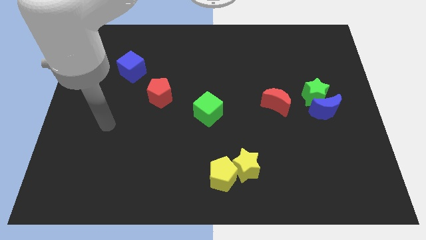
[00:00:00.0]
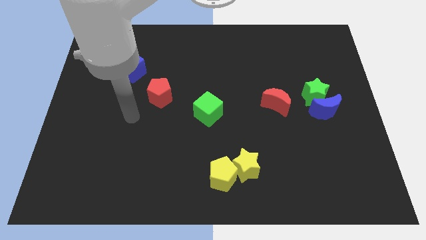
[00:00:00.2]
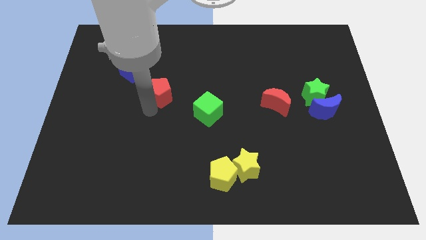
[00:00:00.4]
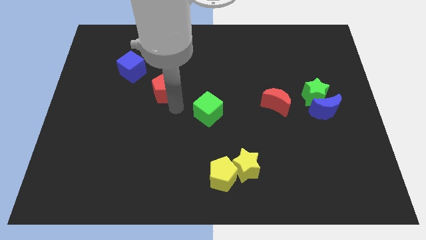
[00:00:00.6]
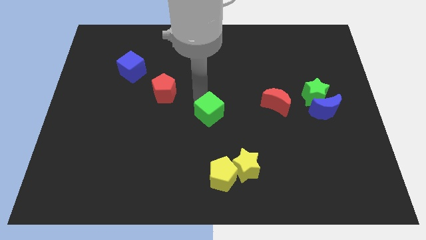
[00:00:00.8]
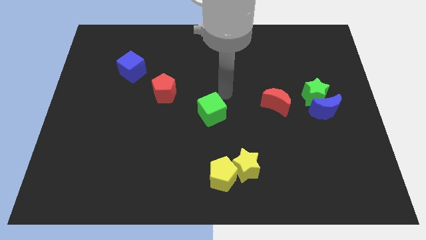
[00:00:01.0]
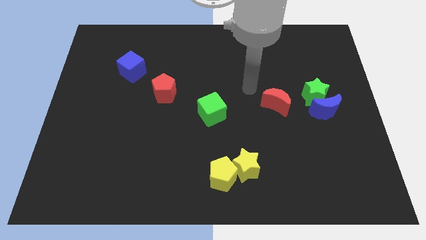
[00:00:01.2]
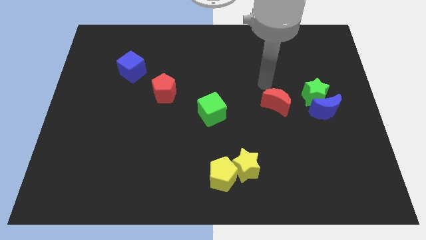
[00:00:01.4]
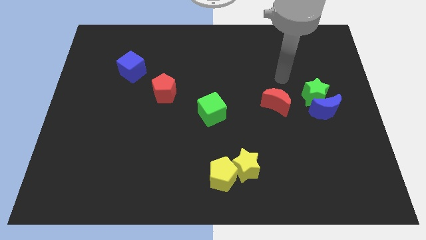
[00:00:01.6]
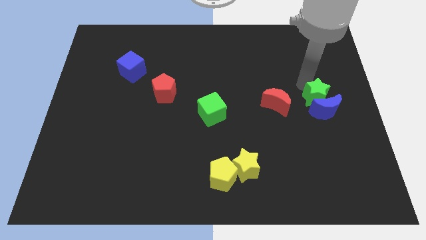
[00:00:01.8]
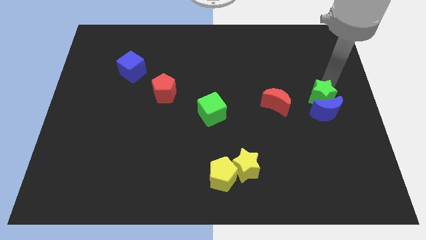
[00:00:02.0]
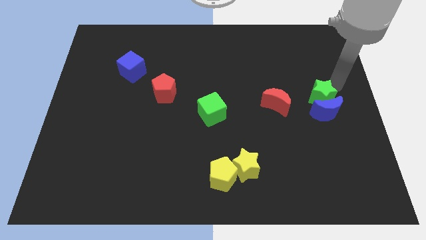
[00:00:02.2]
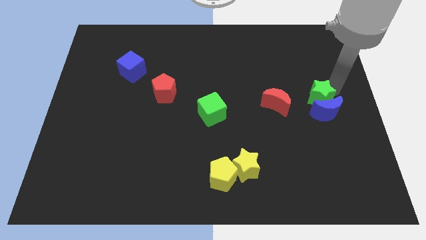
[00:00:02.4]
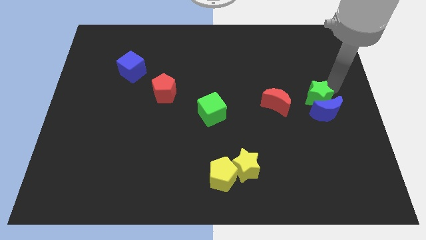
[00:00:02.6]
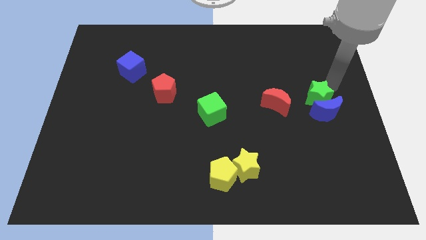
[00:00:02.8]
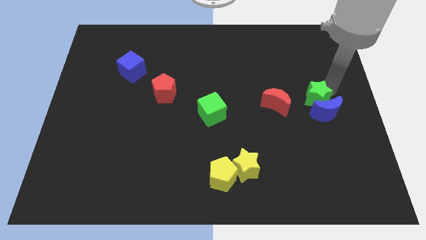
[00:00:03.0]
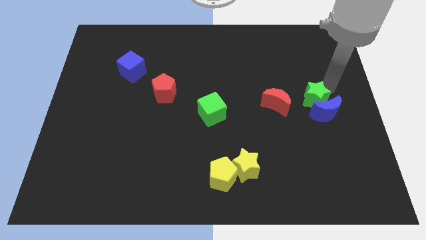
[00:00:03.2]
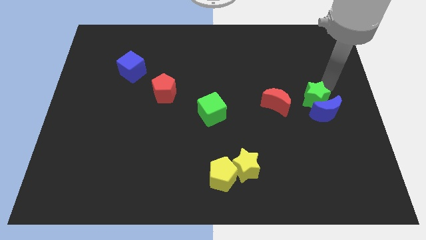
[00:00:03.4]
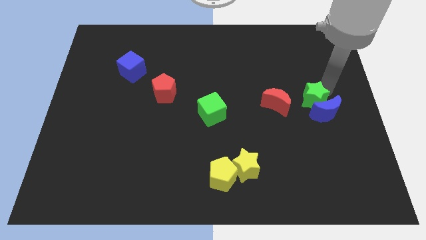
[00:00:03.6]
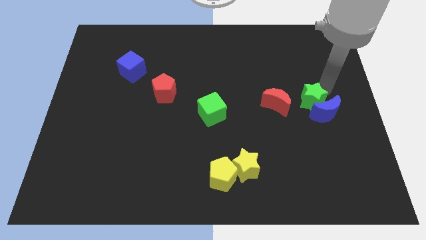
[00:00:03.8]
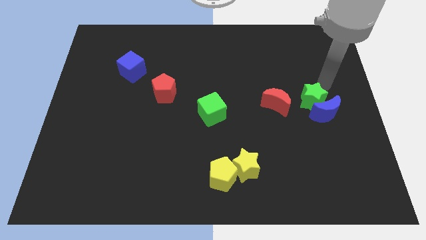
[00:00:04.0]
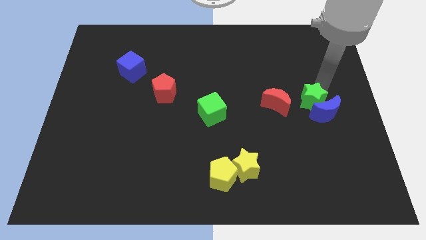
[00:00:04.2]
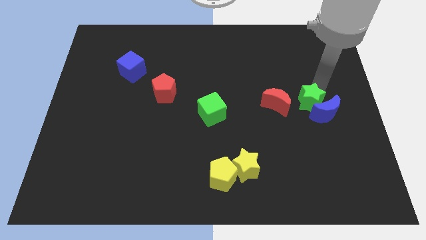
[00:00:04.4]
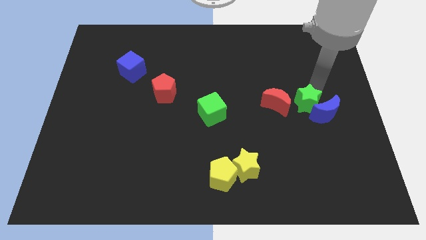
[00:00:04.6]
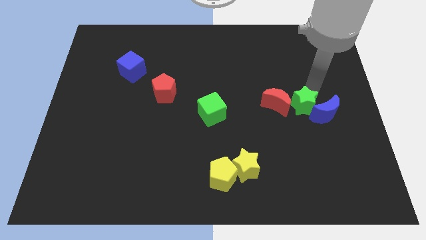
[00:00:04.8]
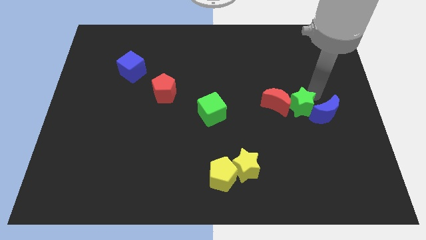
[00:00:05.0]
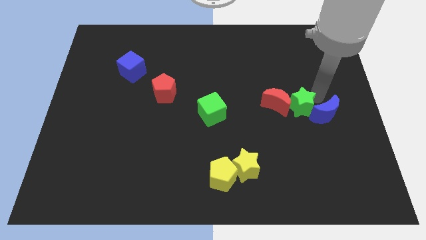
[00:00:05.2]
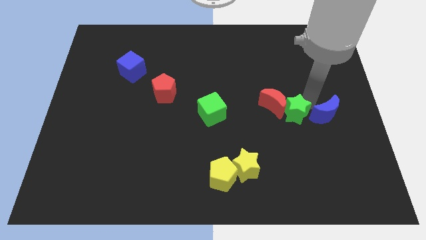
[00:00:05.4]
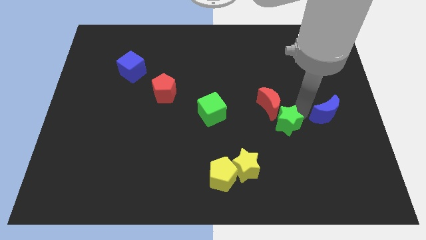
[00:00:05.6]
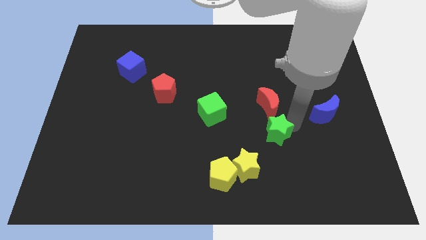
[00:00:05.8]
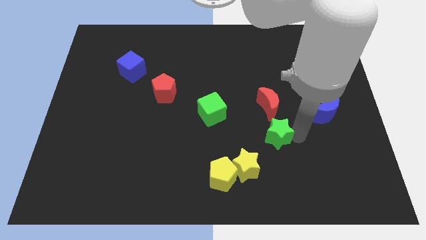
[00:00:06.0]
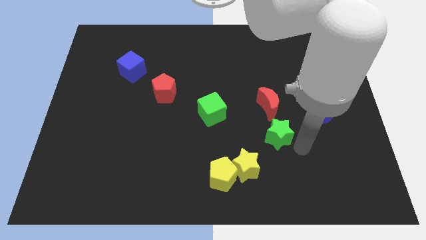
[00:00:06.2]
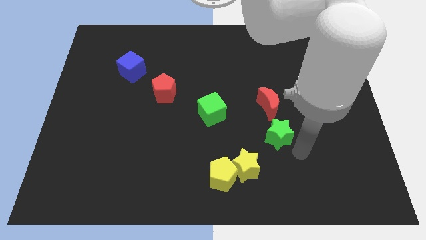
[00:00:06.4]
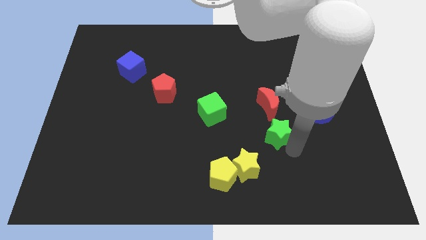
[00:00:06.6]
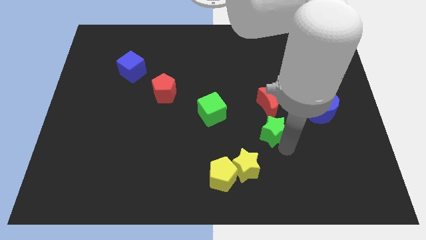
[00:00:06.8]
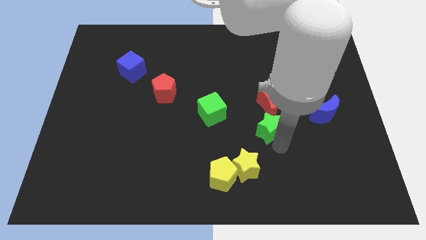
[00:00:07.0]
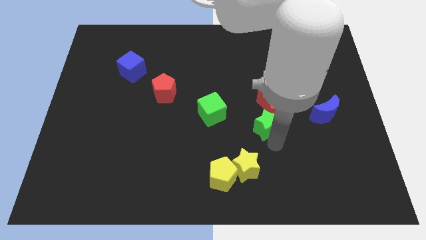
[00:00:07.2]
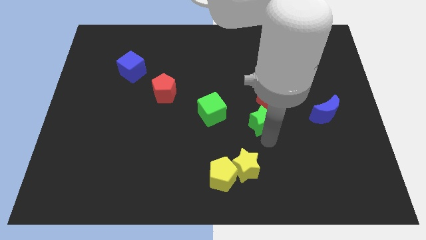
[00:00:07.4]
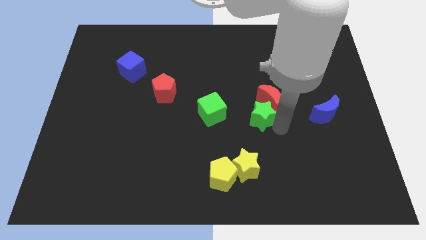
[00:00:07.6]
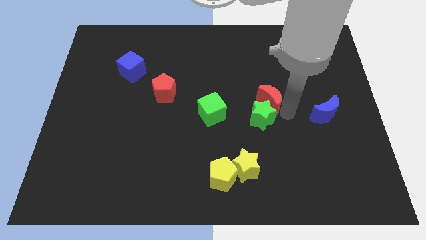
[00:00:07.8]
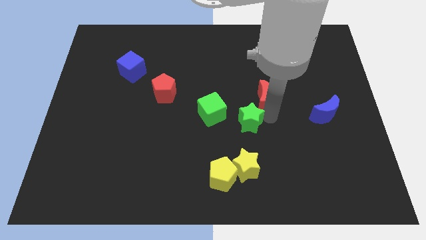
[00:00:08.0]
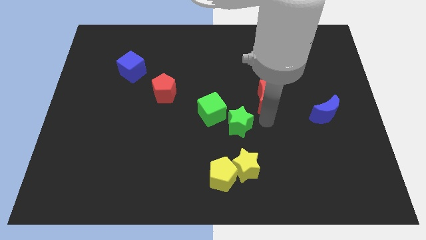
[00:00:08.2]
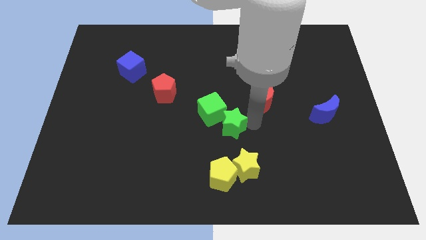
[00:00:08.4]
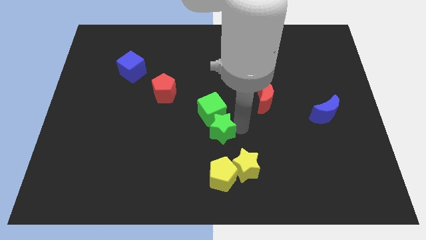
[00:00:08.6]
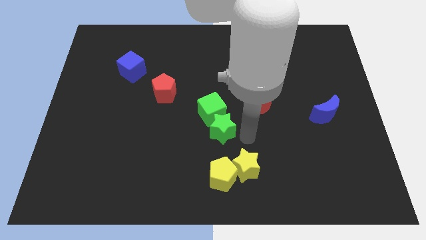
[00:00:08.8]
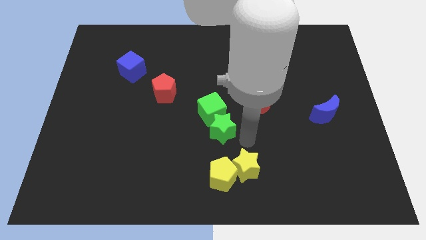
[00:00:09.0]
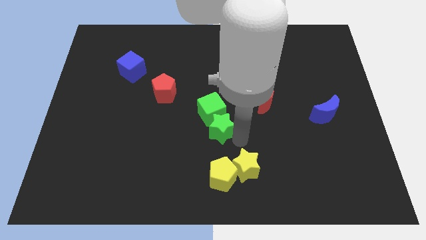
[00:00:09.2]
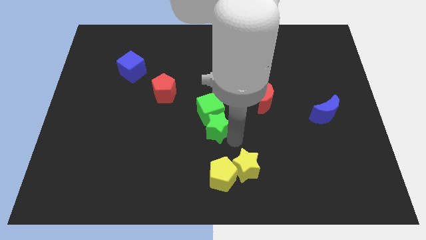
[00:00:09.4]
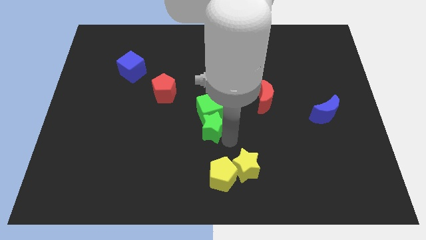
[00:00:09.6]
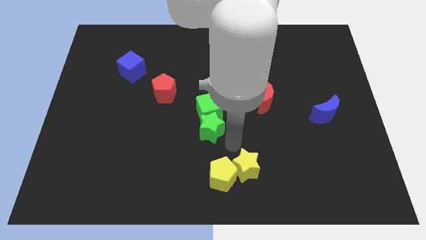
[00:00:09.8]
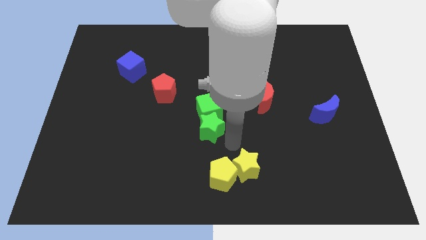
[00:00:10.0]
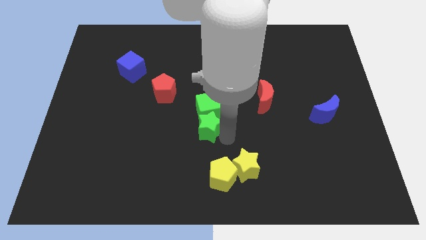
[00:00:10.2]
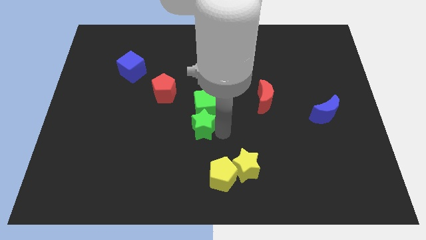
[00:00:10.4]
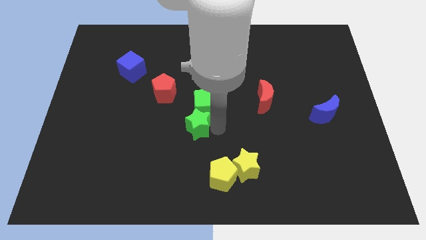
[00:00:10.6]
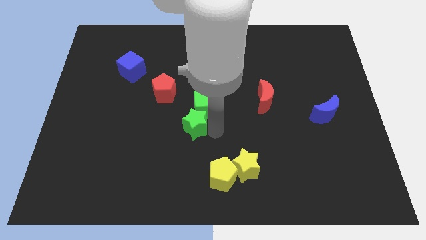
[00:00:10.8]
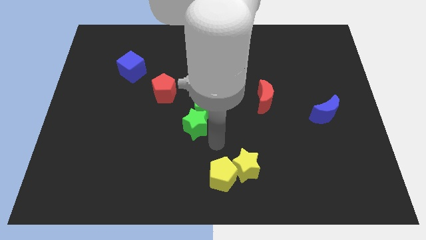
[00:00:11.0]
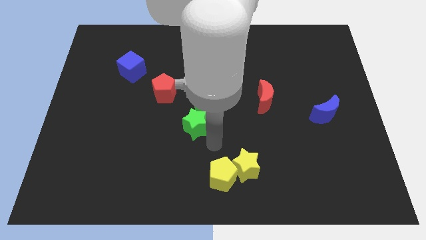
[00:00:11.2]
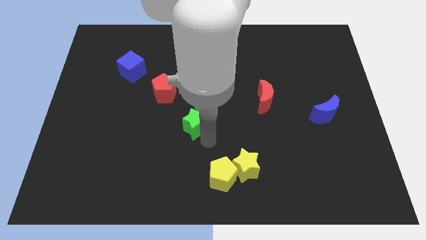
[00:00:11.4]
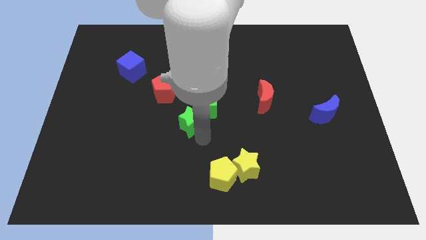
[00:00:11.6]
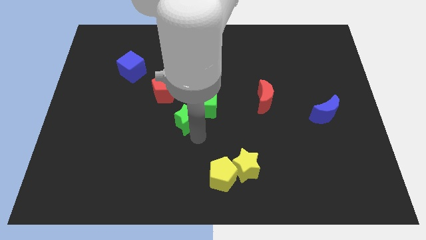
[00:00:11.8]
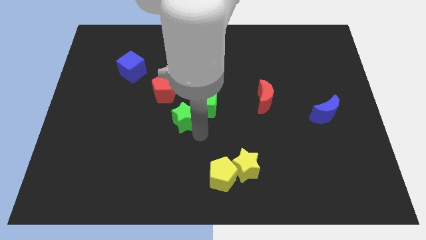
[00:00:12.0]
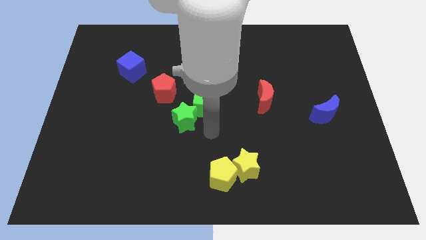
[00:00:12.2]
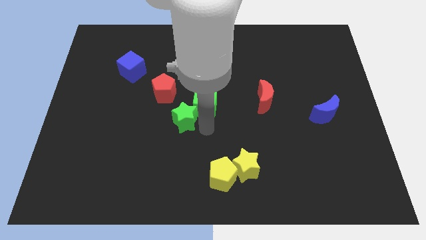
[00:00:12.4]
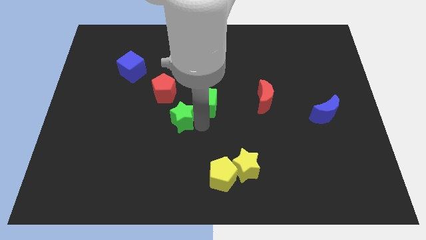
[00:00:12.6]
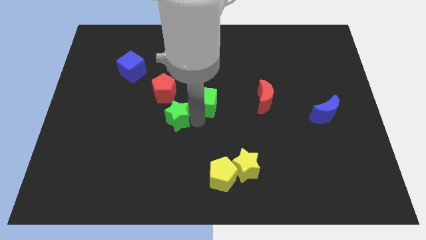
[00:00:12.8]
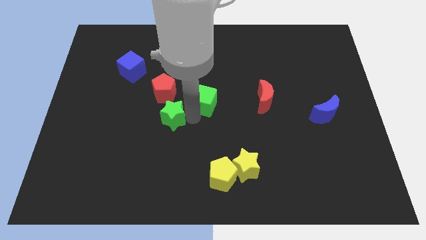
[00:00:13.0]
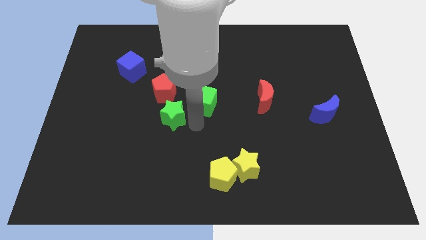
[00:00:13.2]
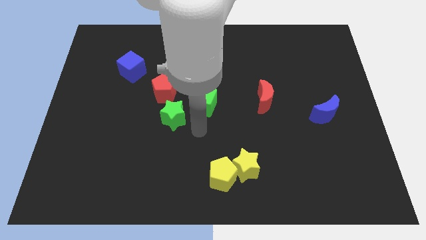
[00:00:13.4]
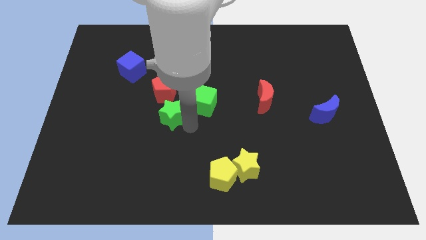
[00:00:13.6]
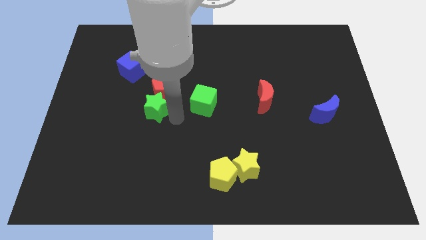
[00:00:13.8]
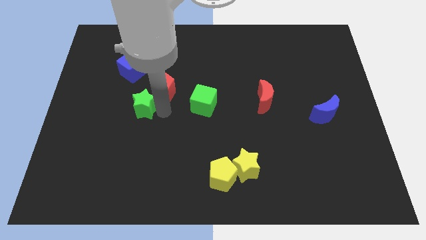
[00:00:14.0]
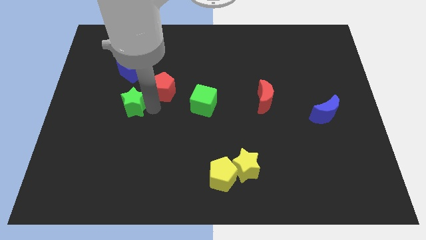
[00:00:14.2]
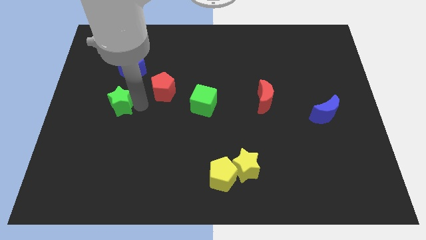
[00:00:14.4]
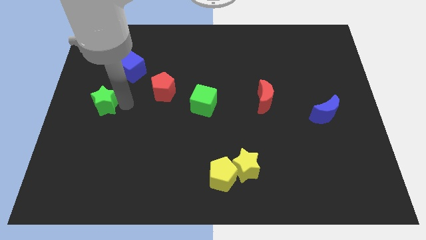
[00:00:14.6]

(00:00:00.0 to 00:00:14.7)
slide the green star to the center left
